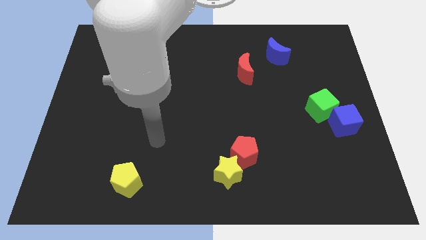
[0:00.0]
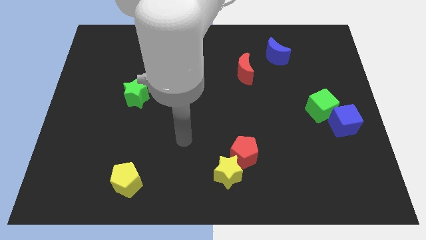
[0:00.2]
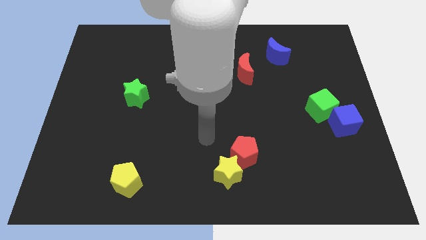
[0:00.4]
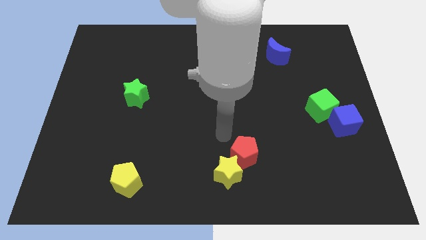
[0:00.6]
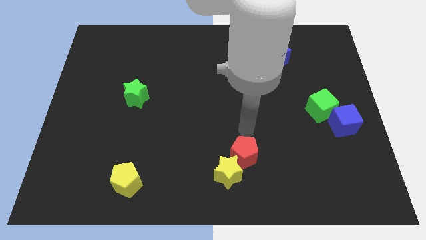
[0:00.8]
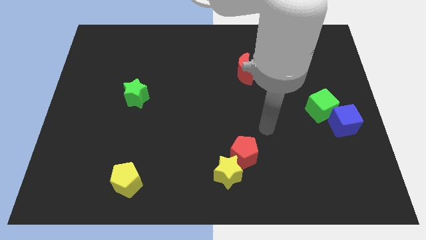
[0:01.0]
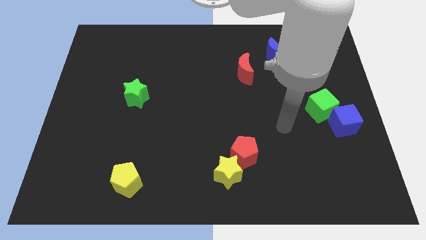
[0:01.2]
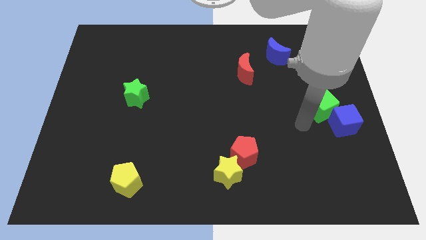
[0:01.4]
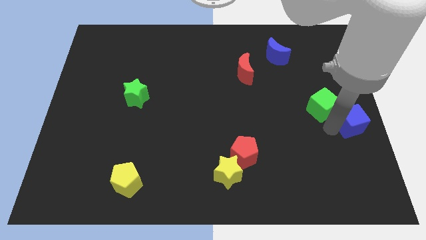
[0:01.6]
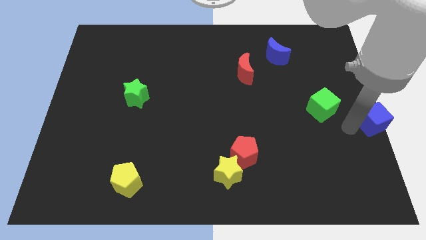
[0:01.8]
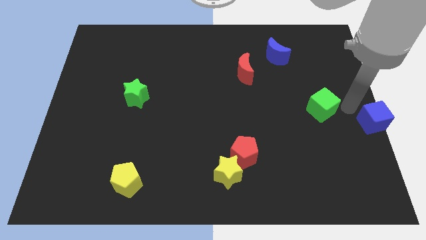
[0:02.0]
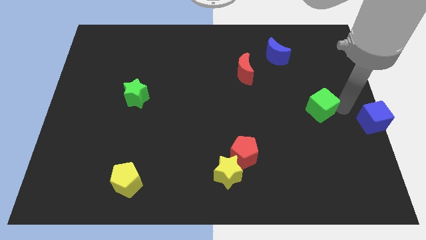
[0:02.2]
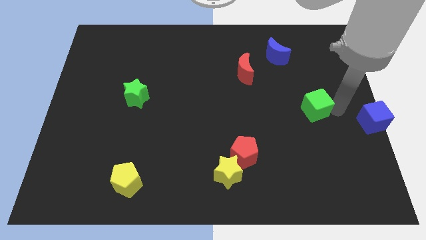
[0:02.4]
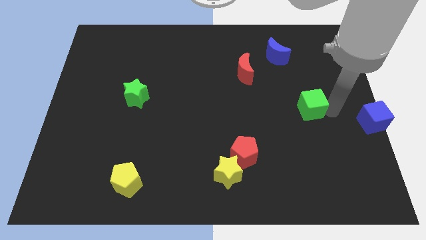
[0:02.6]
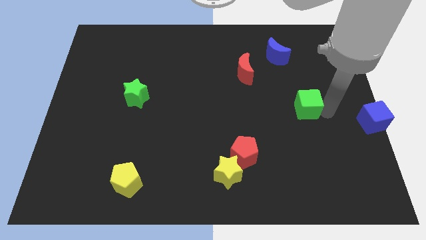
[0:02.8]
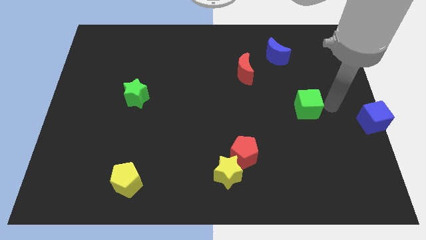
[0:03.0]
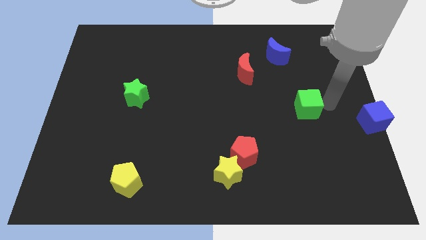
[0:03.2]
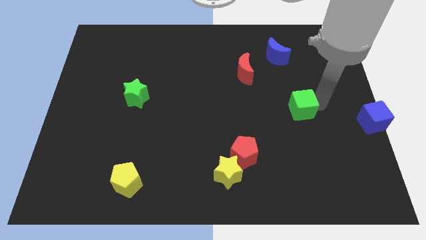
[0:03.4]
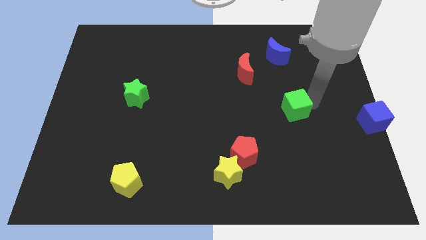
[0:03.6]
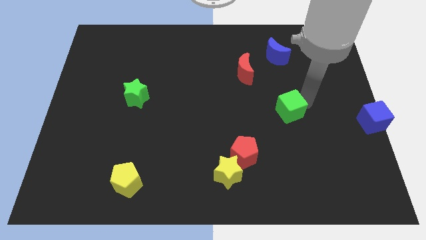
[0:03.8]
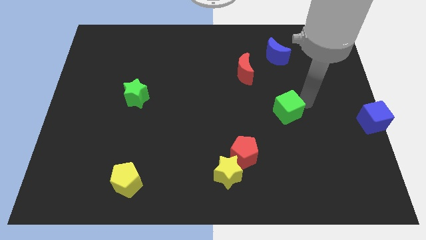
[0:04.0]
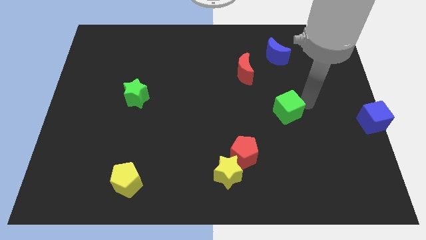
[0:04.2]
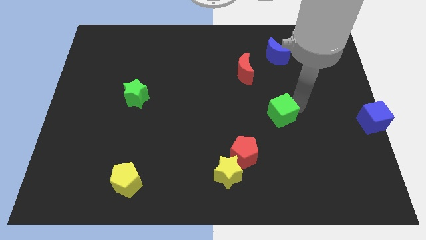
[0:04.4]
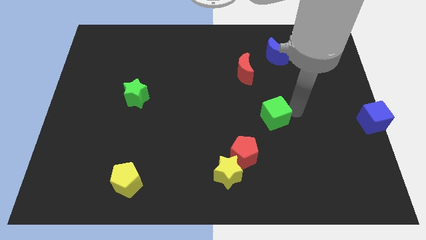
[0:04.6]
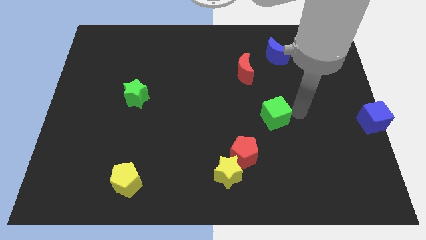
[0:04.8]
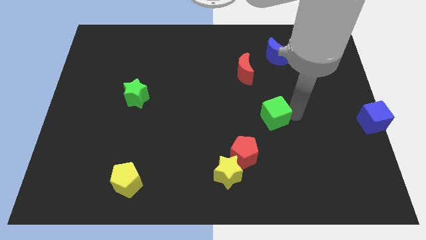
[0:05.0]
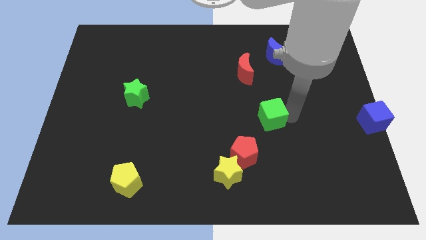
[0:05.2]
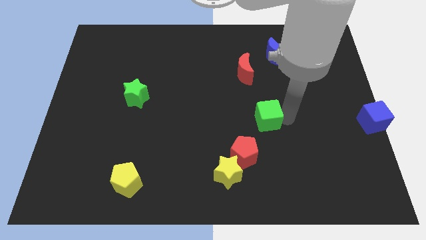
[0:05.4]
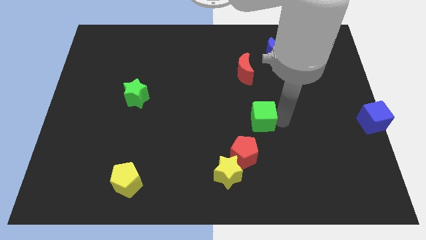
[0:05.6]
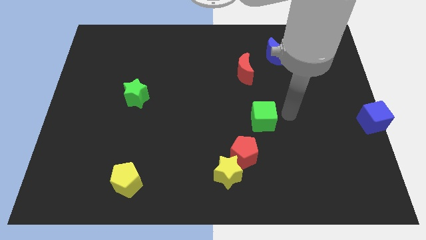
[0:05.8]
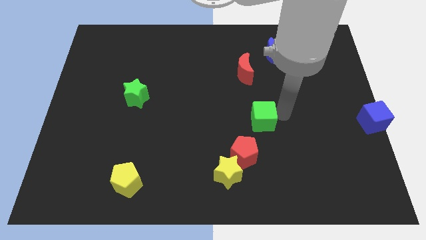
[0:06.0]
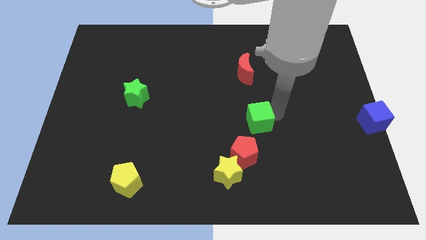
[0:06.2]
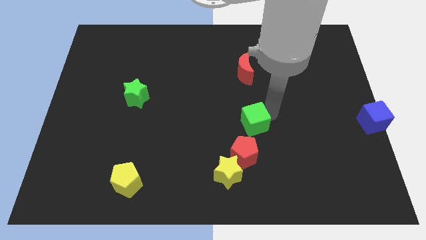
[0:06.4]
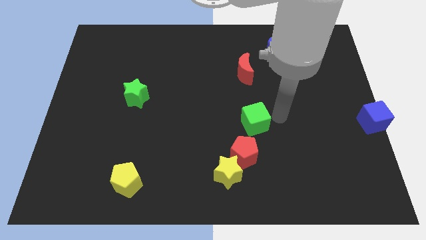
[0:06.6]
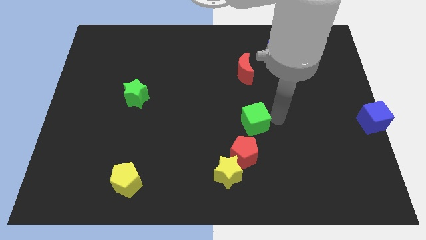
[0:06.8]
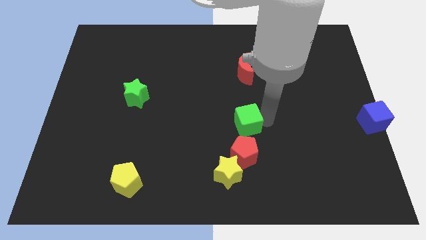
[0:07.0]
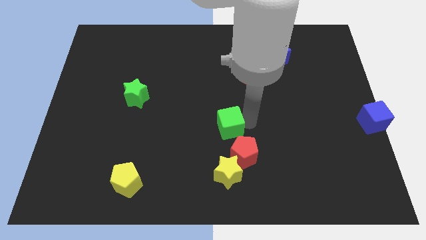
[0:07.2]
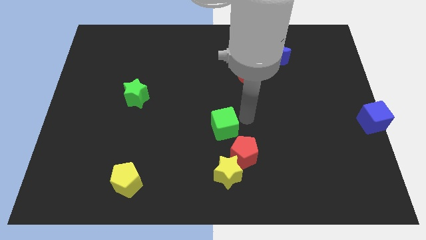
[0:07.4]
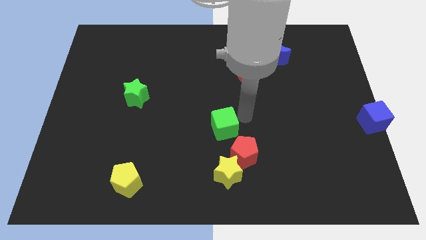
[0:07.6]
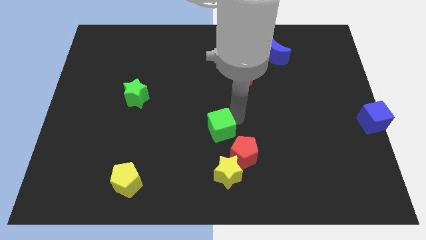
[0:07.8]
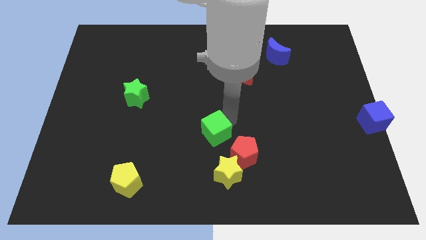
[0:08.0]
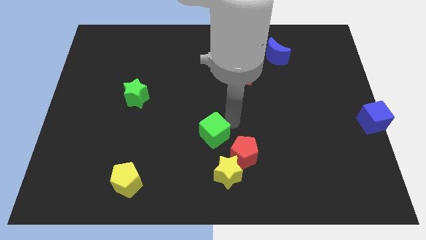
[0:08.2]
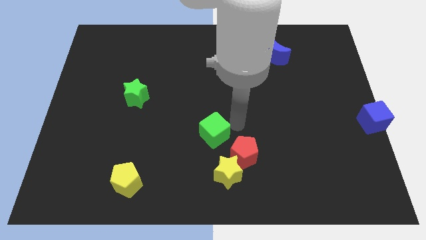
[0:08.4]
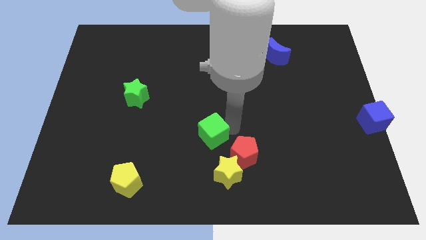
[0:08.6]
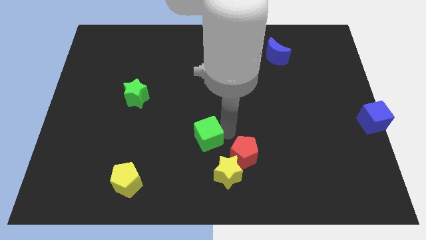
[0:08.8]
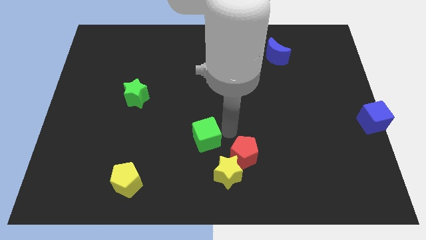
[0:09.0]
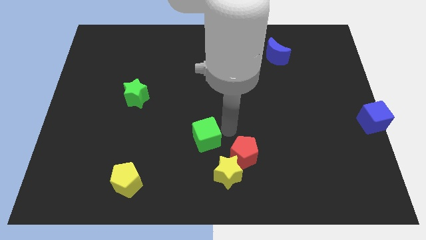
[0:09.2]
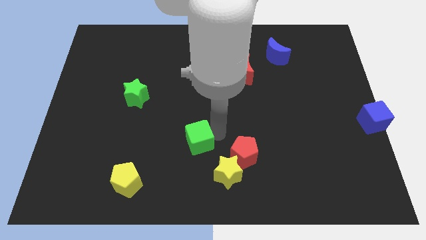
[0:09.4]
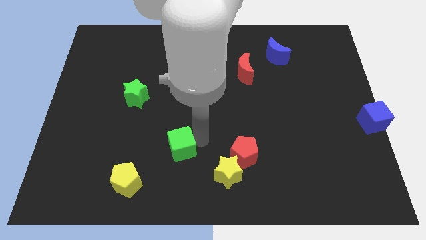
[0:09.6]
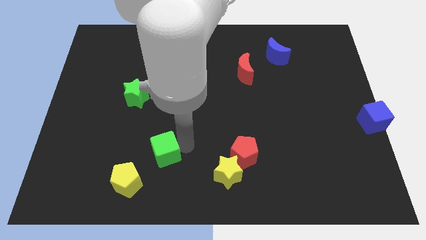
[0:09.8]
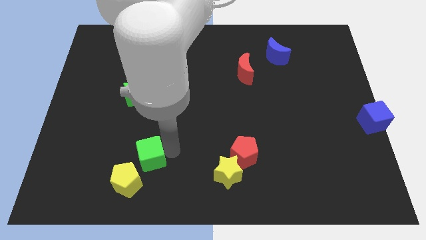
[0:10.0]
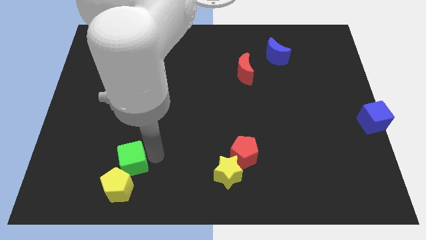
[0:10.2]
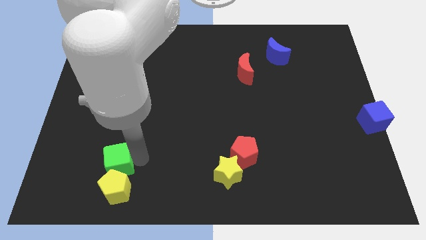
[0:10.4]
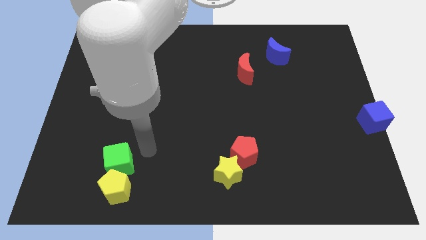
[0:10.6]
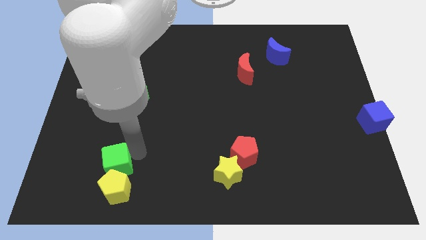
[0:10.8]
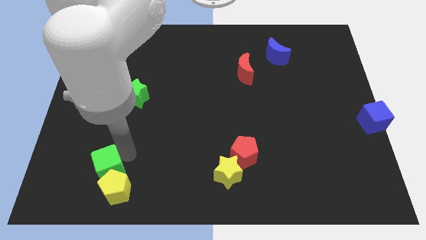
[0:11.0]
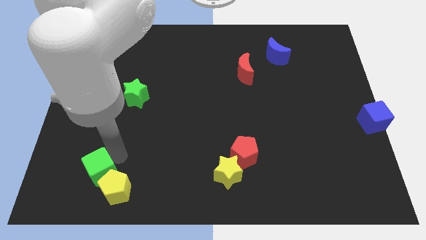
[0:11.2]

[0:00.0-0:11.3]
slide the green cube left of the yellow pentagon

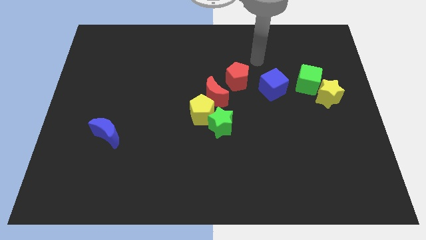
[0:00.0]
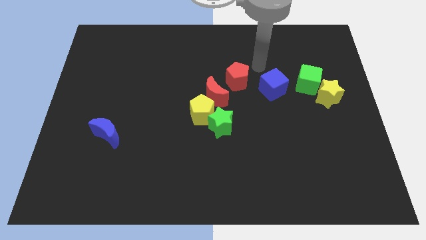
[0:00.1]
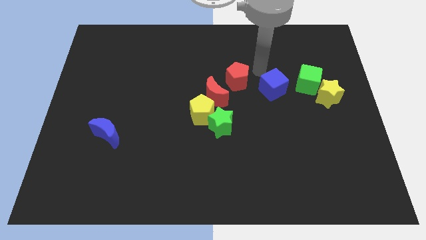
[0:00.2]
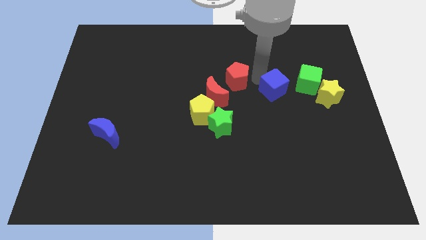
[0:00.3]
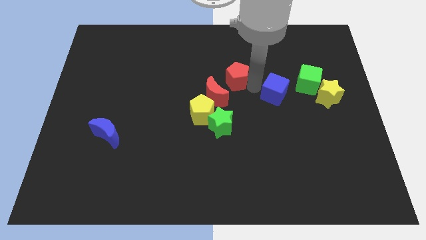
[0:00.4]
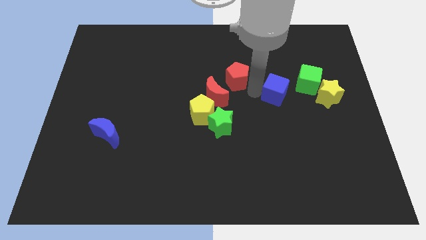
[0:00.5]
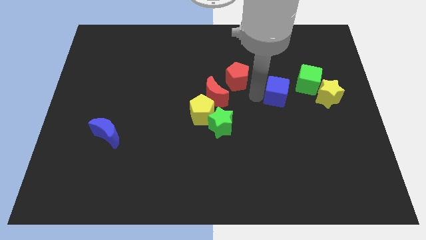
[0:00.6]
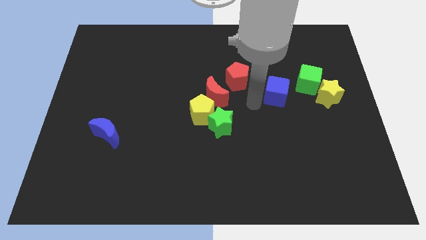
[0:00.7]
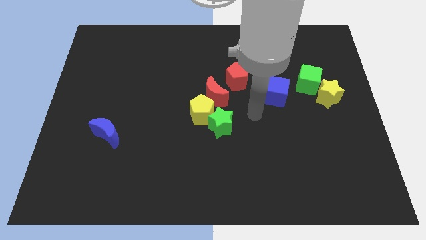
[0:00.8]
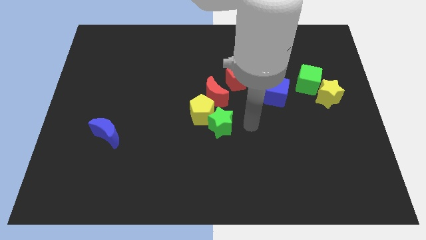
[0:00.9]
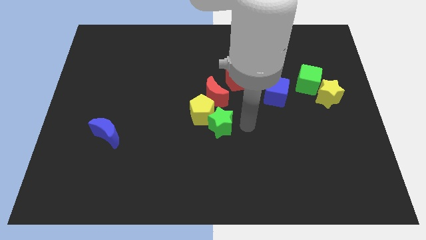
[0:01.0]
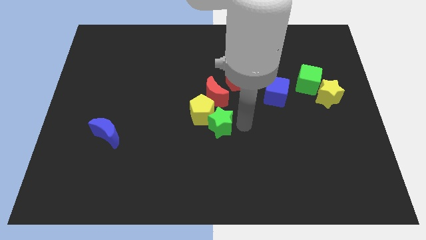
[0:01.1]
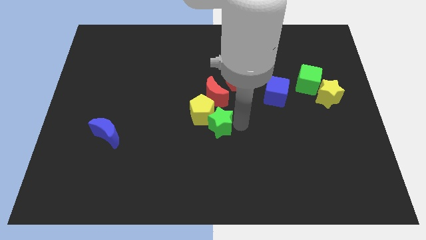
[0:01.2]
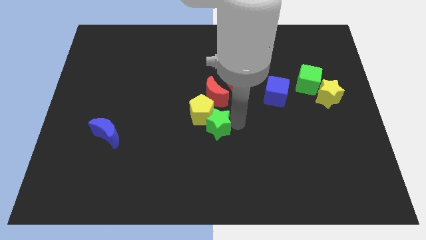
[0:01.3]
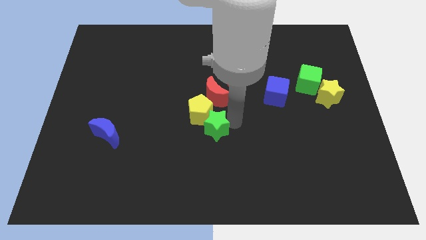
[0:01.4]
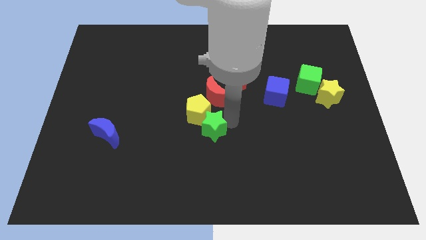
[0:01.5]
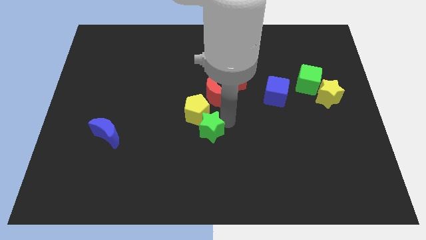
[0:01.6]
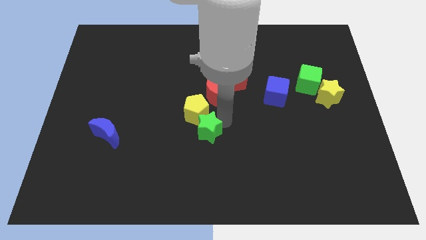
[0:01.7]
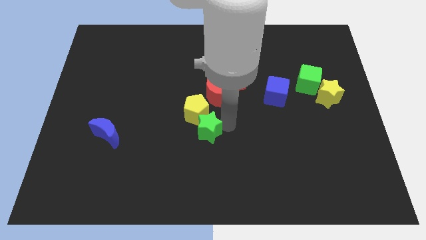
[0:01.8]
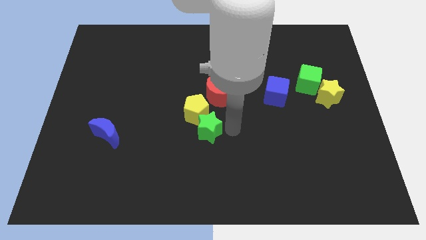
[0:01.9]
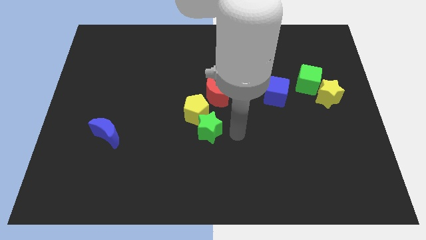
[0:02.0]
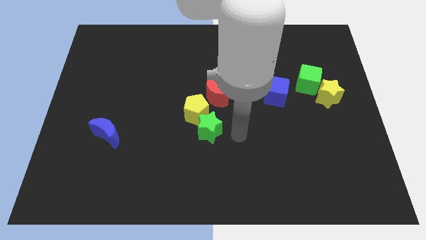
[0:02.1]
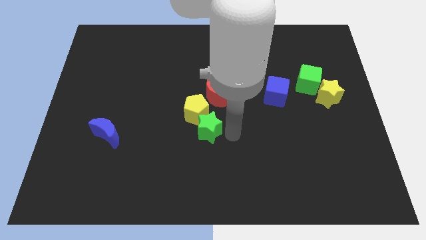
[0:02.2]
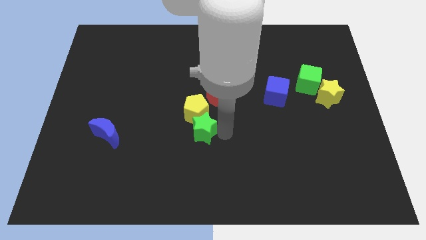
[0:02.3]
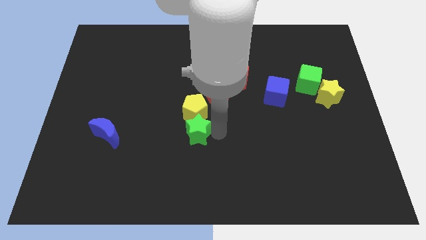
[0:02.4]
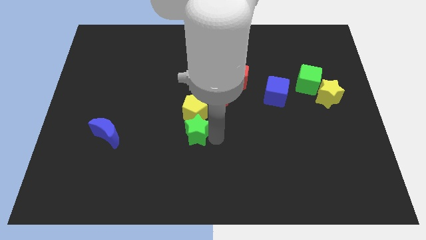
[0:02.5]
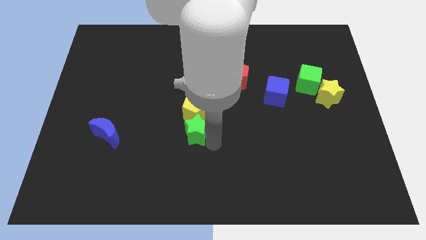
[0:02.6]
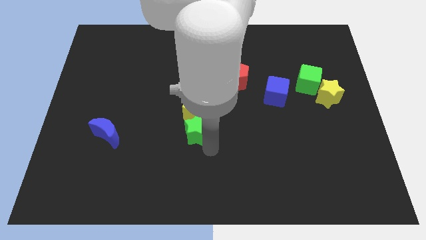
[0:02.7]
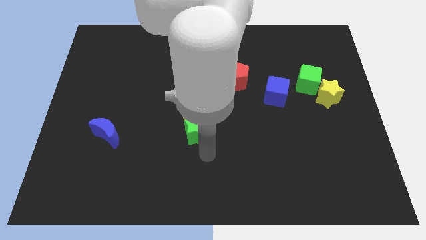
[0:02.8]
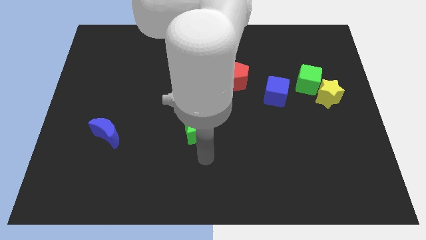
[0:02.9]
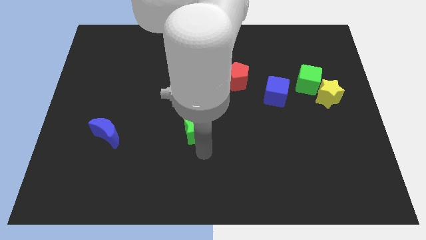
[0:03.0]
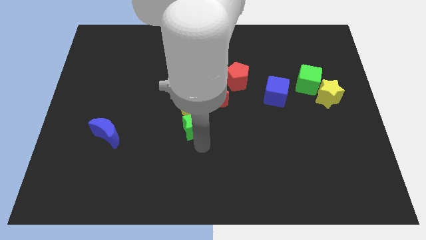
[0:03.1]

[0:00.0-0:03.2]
move the green star to the bottom left of the red moon
